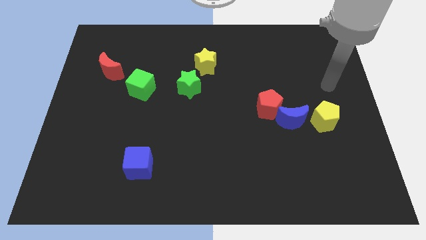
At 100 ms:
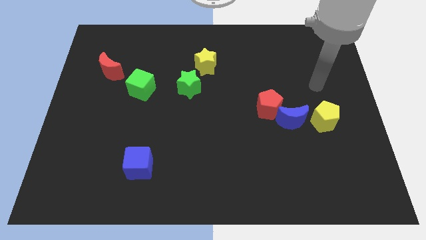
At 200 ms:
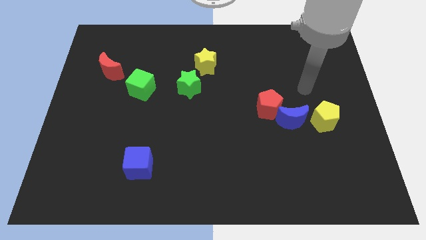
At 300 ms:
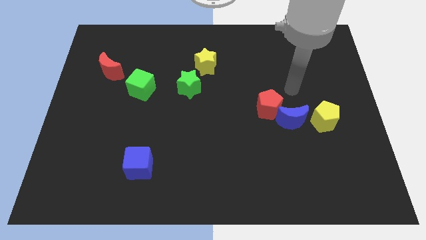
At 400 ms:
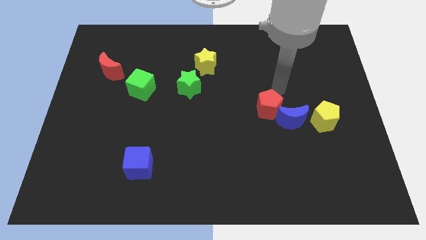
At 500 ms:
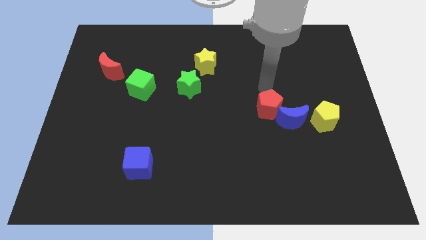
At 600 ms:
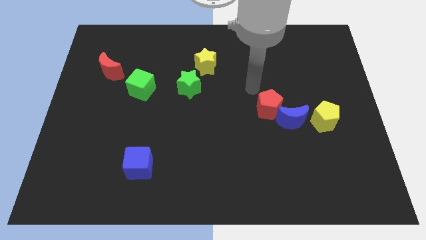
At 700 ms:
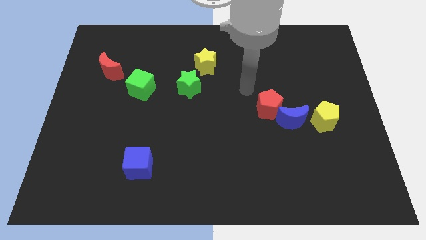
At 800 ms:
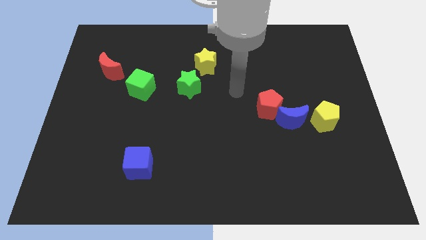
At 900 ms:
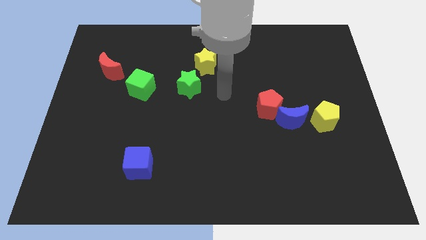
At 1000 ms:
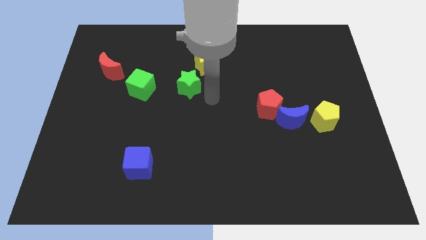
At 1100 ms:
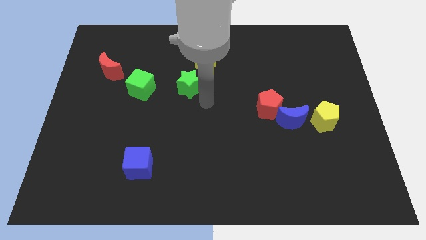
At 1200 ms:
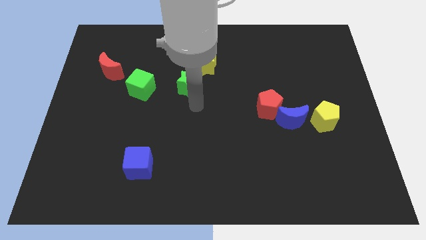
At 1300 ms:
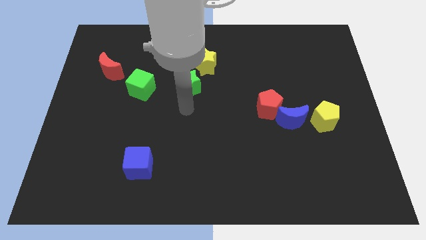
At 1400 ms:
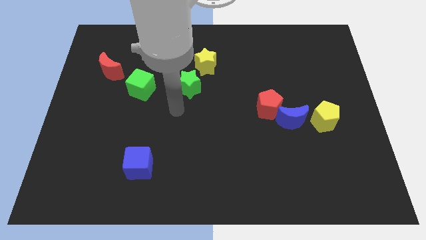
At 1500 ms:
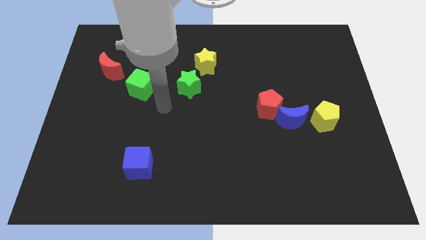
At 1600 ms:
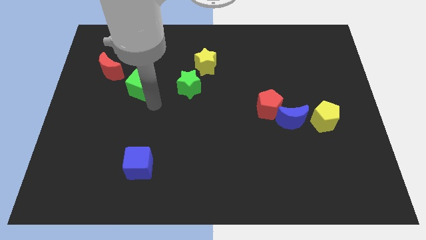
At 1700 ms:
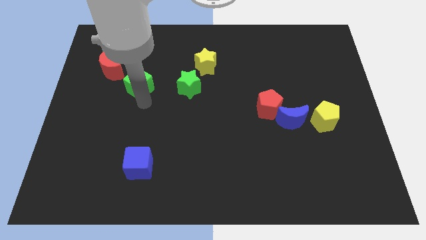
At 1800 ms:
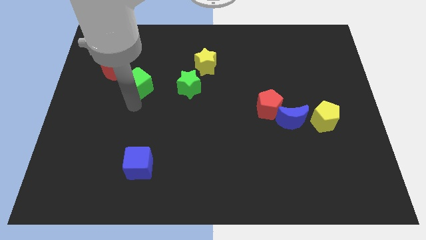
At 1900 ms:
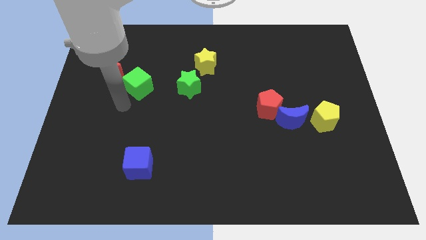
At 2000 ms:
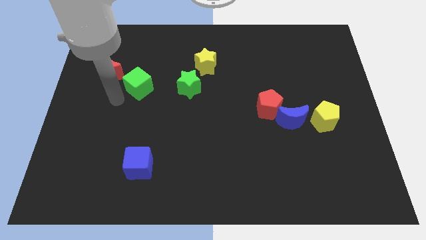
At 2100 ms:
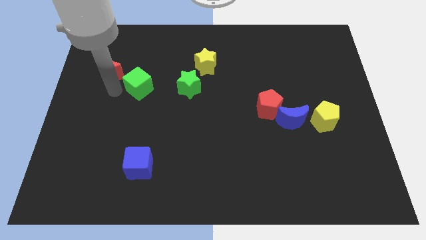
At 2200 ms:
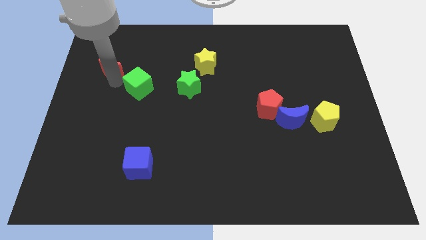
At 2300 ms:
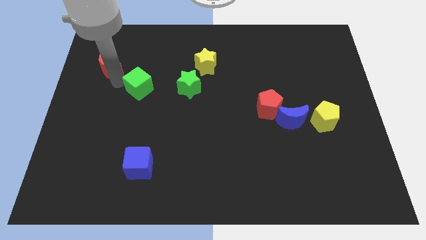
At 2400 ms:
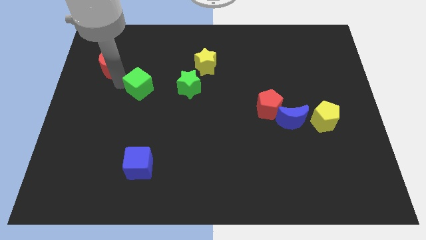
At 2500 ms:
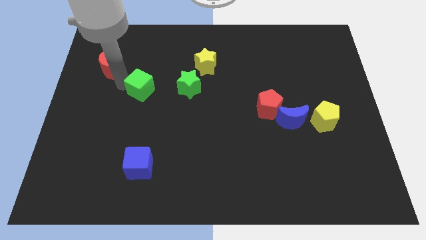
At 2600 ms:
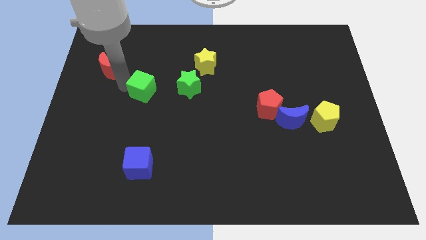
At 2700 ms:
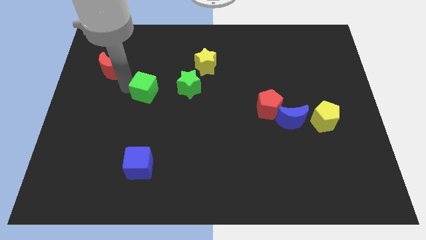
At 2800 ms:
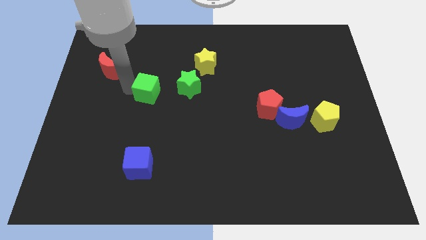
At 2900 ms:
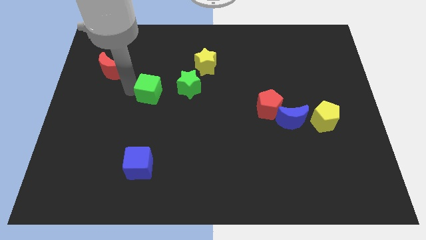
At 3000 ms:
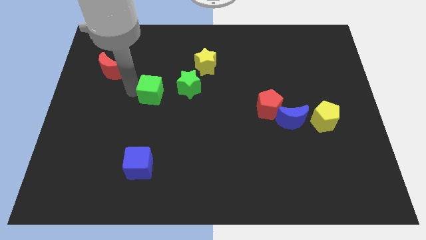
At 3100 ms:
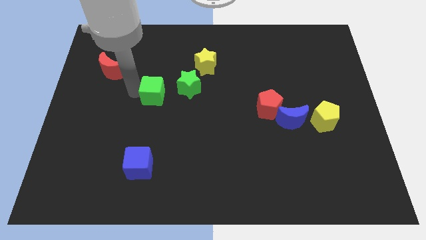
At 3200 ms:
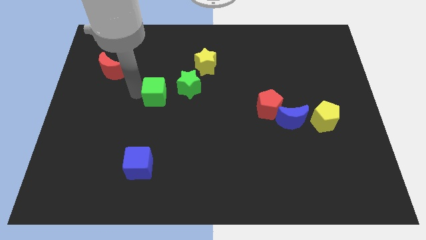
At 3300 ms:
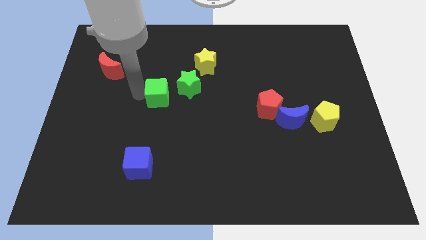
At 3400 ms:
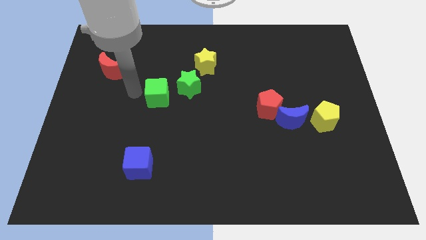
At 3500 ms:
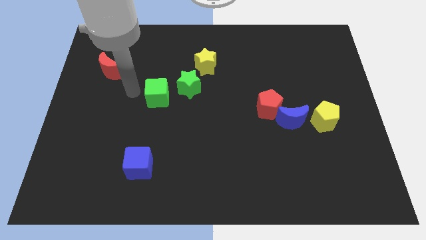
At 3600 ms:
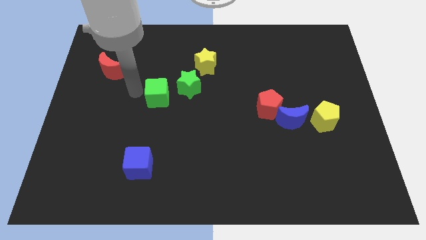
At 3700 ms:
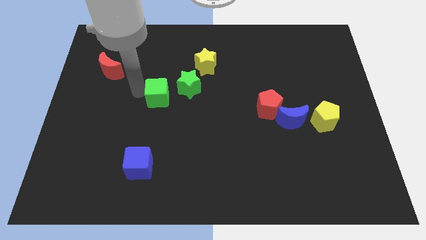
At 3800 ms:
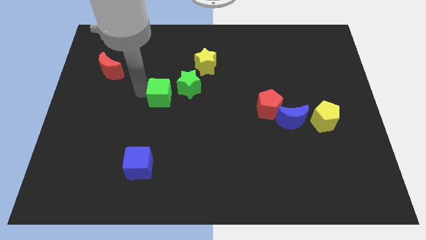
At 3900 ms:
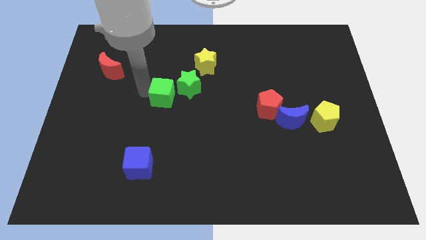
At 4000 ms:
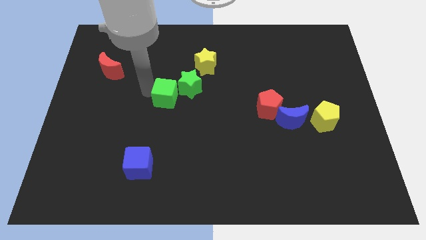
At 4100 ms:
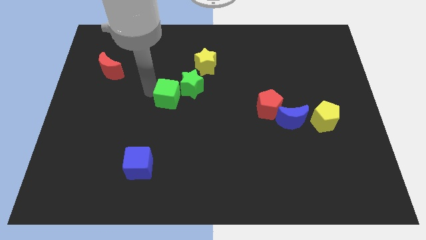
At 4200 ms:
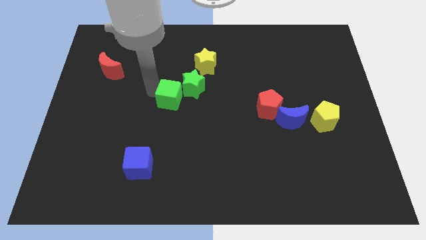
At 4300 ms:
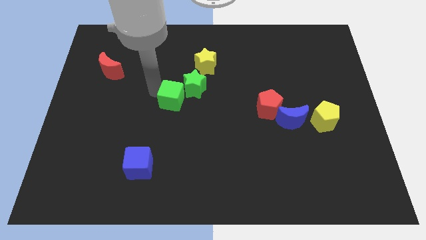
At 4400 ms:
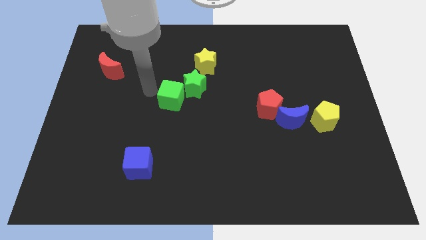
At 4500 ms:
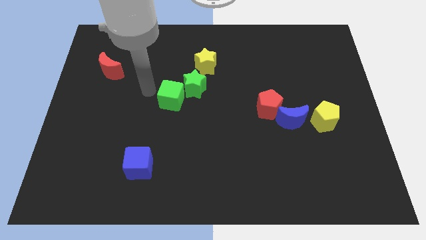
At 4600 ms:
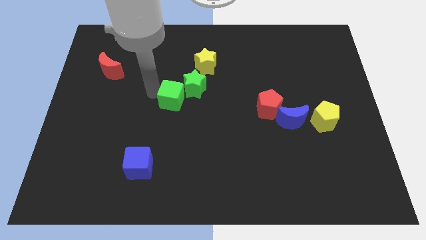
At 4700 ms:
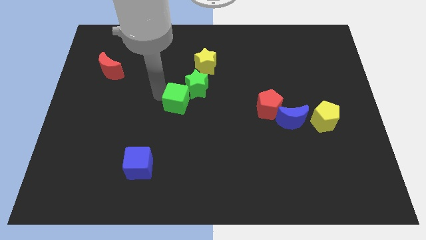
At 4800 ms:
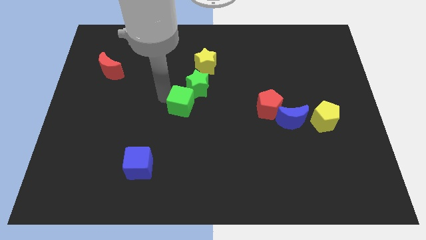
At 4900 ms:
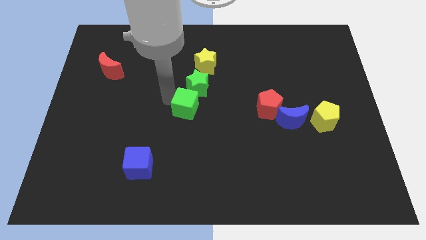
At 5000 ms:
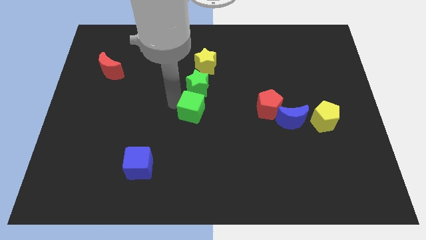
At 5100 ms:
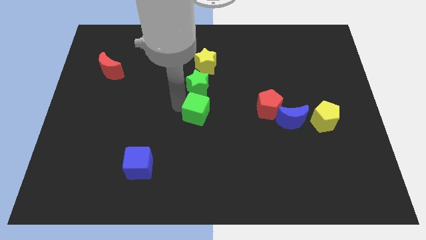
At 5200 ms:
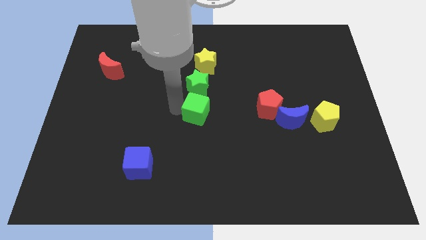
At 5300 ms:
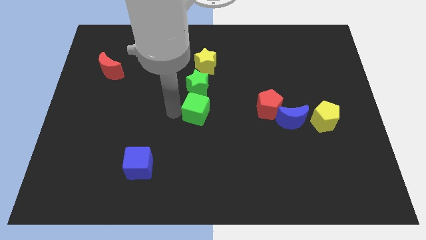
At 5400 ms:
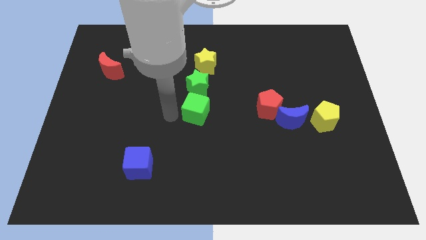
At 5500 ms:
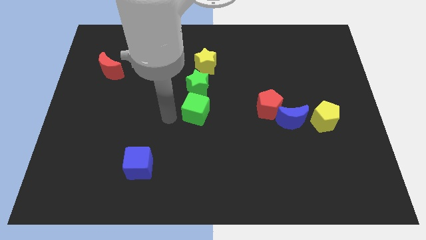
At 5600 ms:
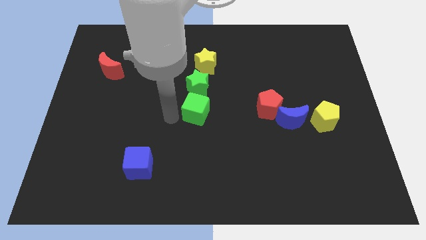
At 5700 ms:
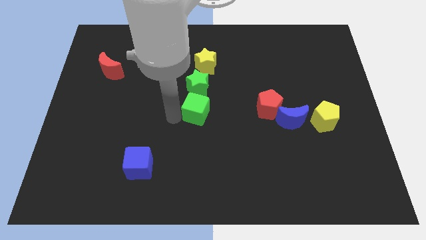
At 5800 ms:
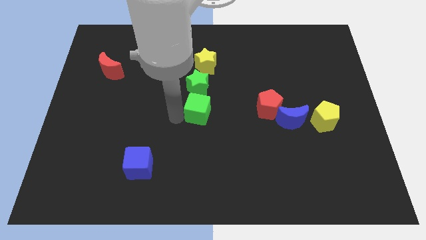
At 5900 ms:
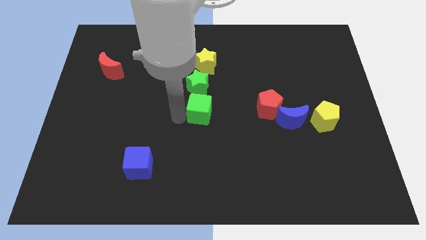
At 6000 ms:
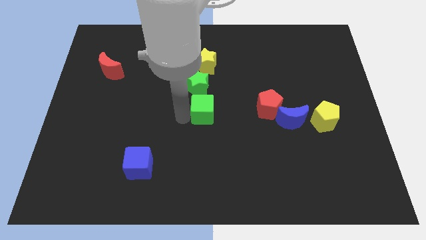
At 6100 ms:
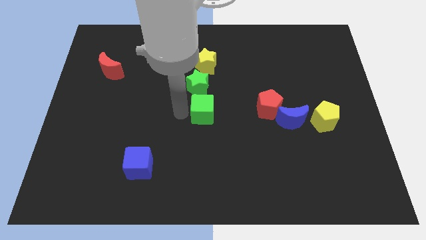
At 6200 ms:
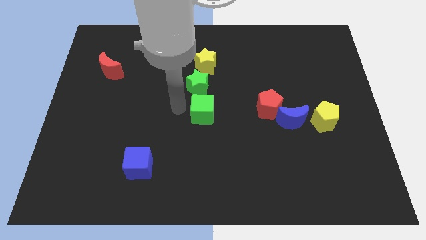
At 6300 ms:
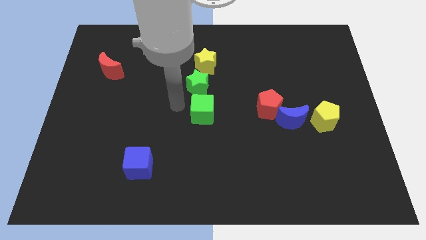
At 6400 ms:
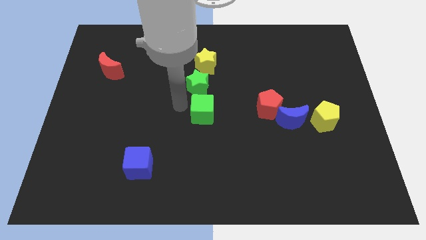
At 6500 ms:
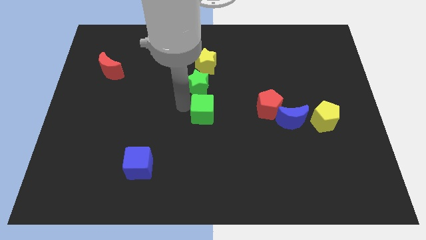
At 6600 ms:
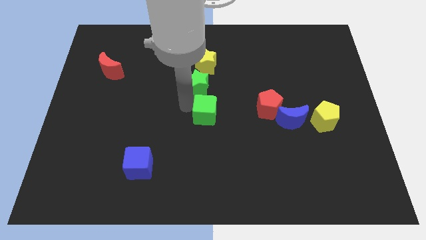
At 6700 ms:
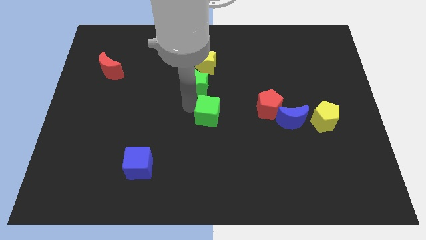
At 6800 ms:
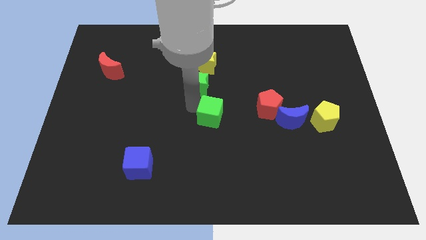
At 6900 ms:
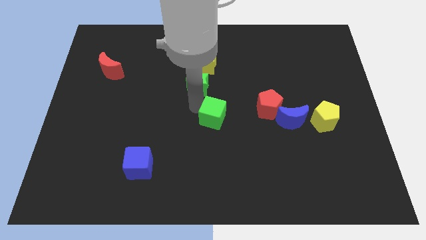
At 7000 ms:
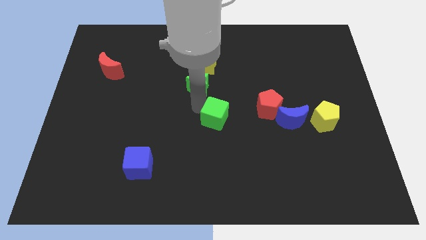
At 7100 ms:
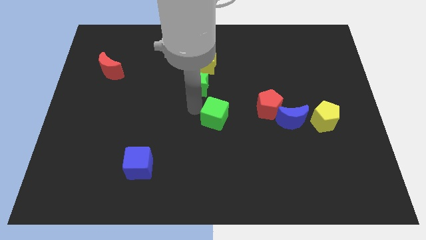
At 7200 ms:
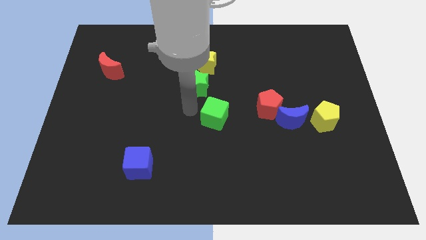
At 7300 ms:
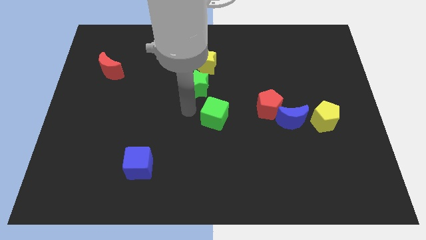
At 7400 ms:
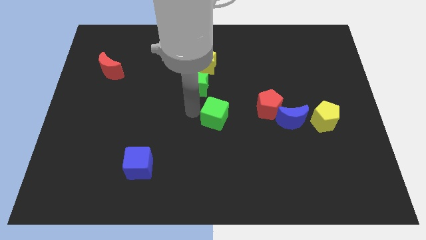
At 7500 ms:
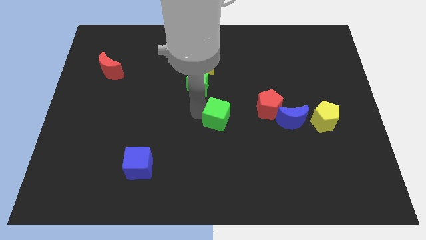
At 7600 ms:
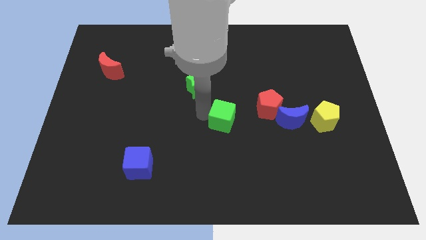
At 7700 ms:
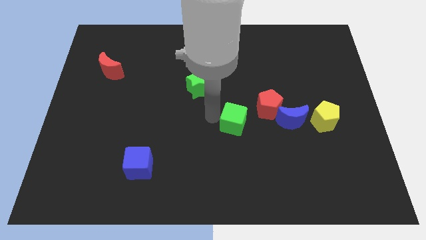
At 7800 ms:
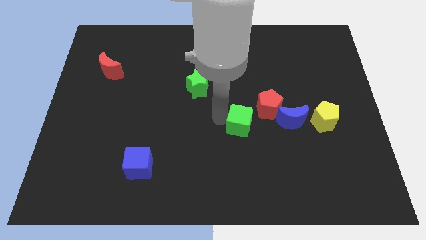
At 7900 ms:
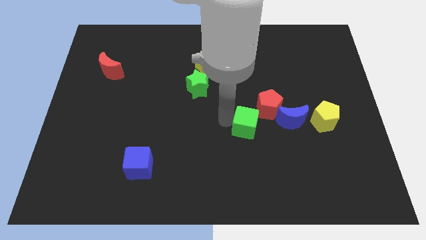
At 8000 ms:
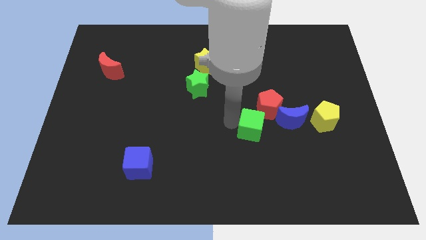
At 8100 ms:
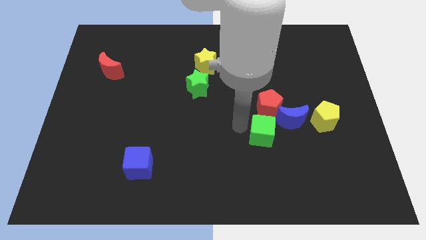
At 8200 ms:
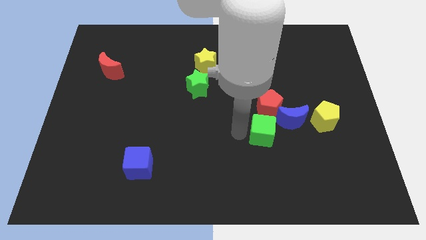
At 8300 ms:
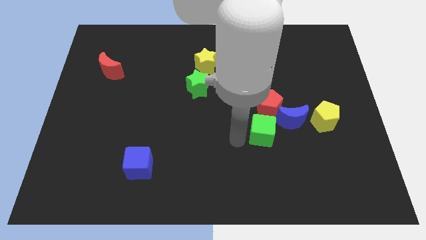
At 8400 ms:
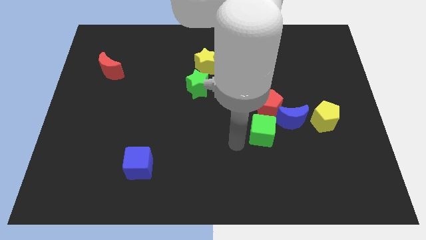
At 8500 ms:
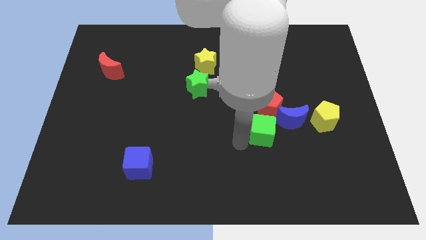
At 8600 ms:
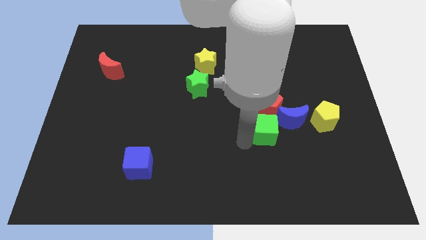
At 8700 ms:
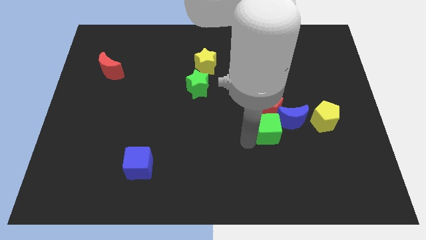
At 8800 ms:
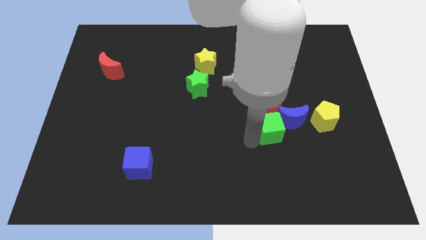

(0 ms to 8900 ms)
slide the green cube to the blue moon
